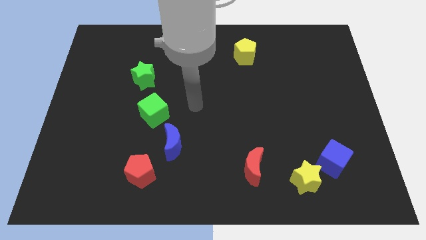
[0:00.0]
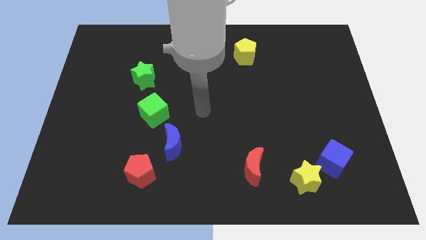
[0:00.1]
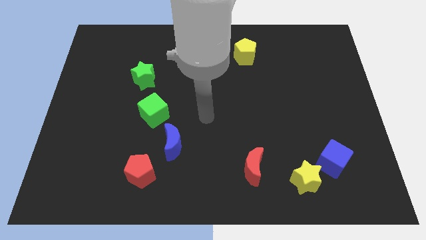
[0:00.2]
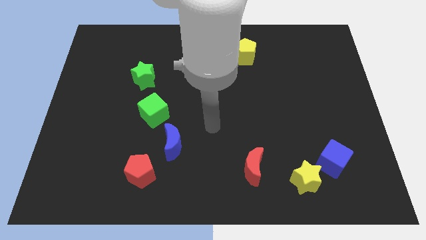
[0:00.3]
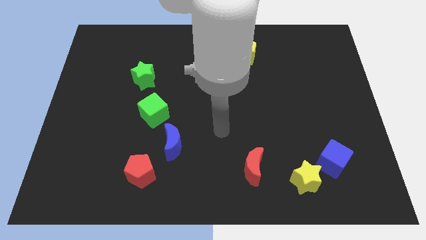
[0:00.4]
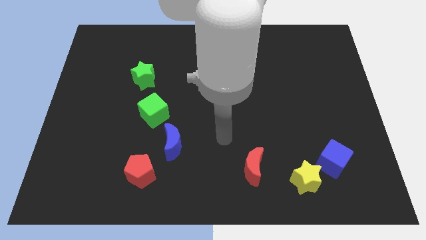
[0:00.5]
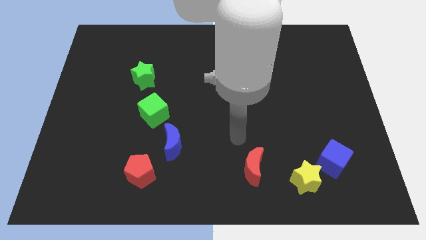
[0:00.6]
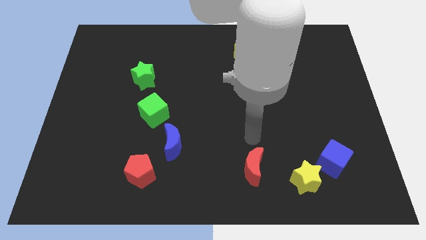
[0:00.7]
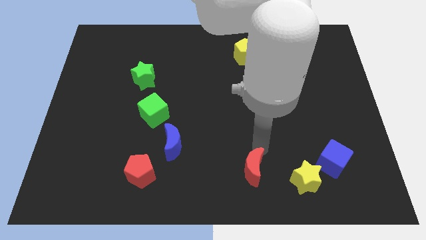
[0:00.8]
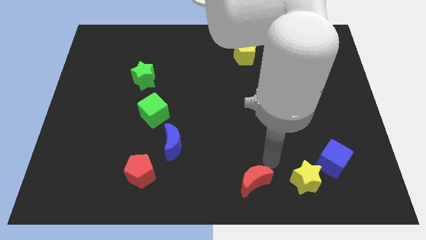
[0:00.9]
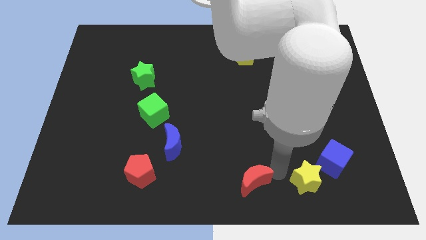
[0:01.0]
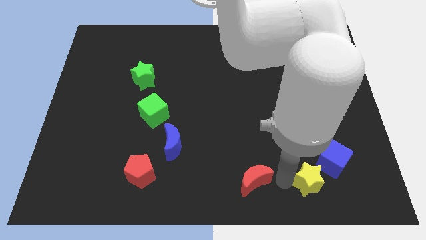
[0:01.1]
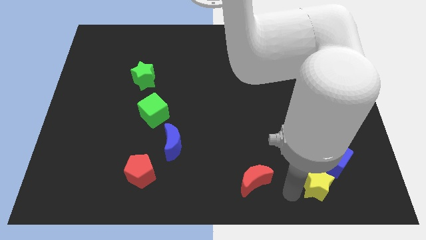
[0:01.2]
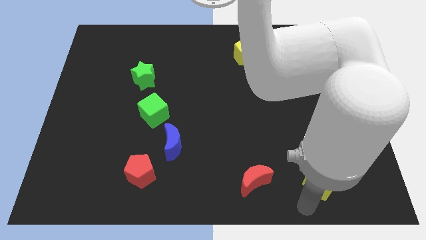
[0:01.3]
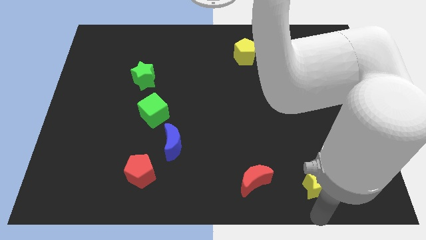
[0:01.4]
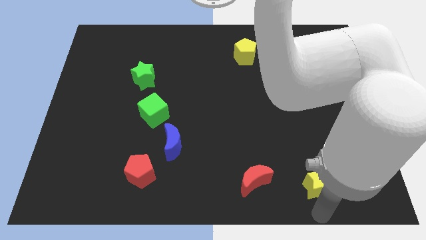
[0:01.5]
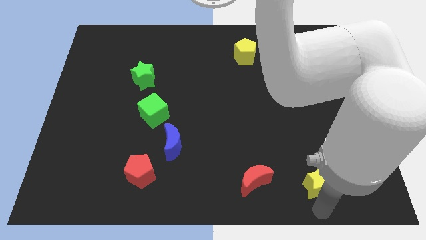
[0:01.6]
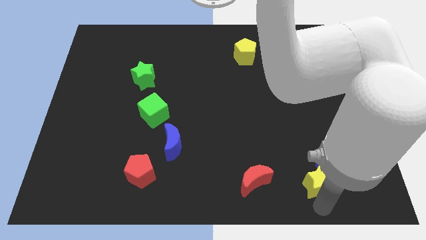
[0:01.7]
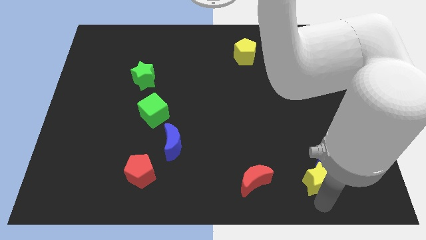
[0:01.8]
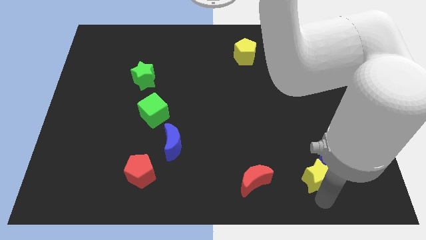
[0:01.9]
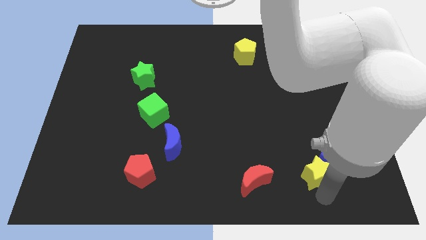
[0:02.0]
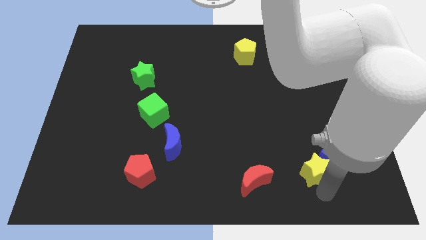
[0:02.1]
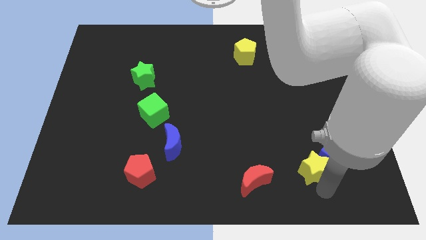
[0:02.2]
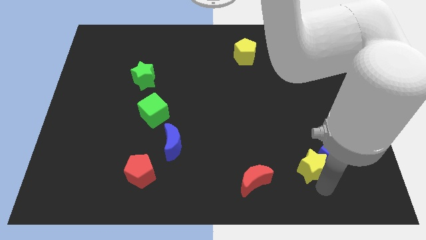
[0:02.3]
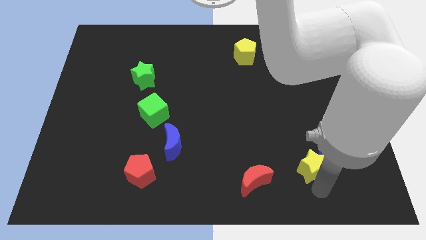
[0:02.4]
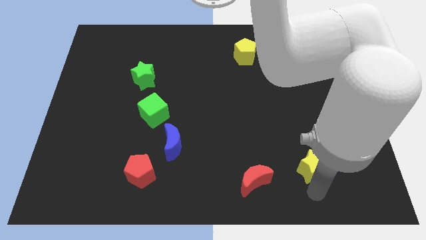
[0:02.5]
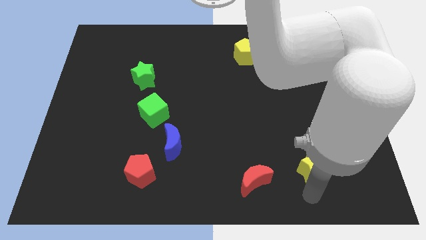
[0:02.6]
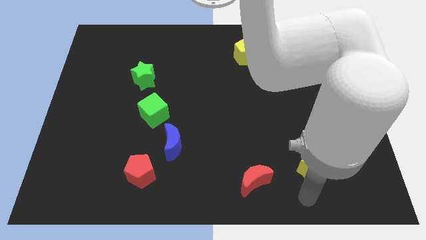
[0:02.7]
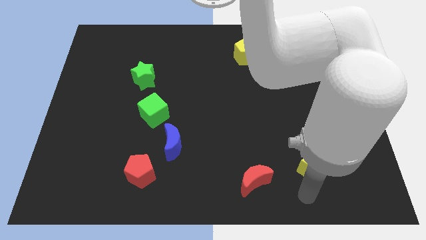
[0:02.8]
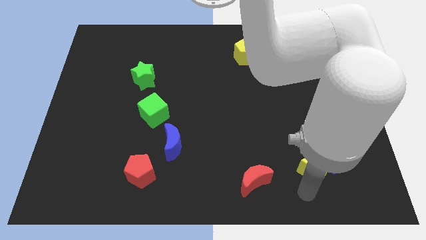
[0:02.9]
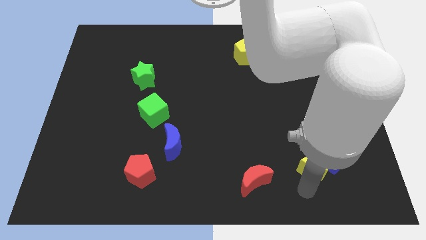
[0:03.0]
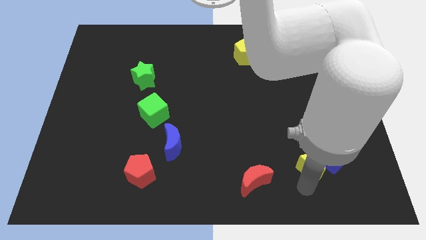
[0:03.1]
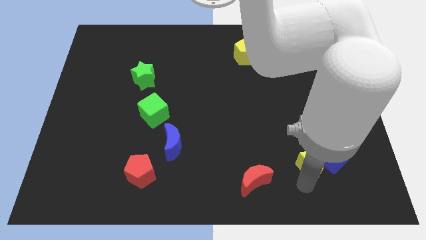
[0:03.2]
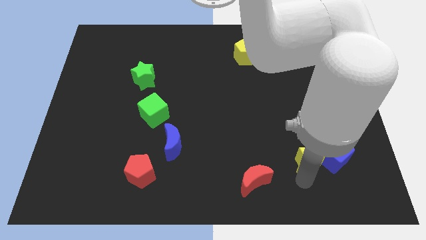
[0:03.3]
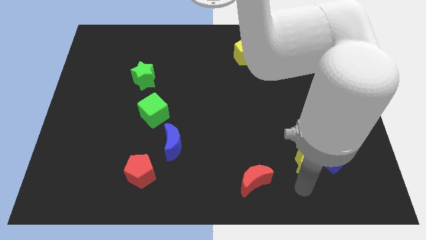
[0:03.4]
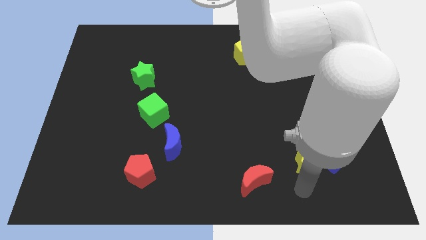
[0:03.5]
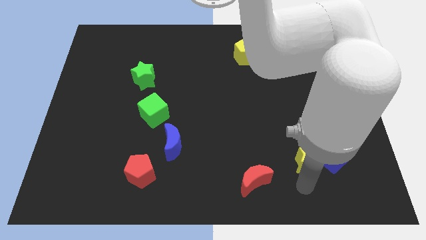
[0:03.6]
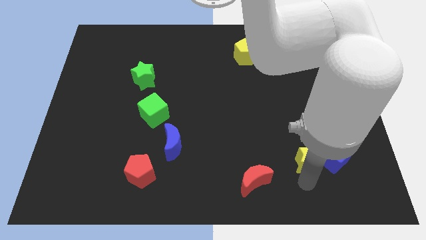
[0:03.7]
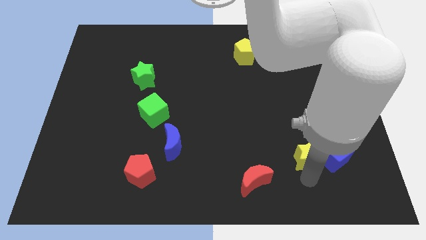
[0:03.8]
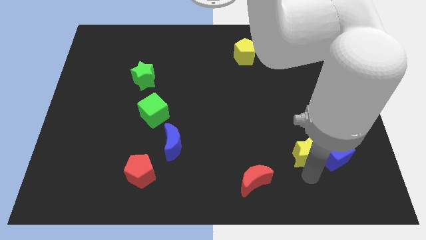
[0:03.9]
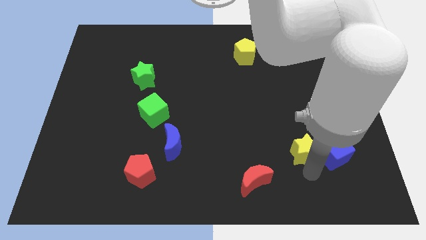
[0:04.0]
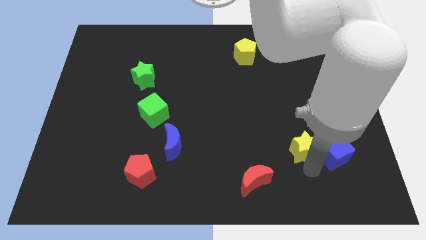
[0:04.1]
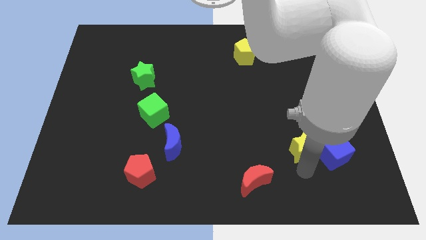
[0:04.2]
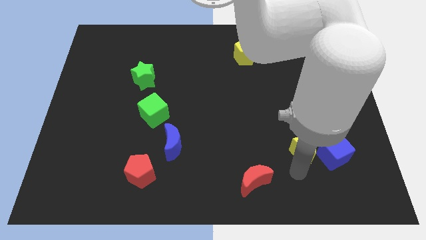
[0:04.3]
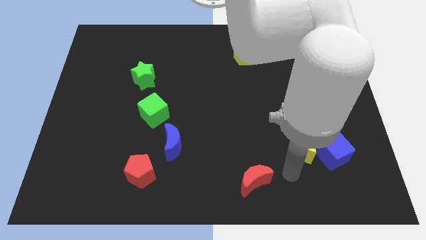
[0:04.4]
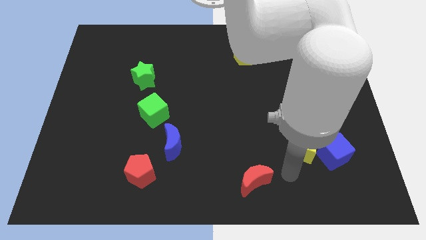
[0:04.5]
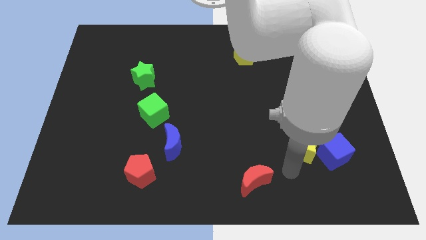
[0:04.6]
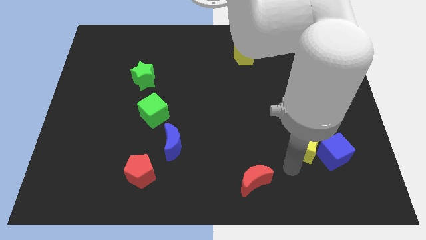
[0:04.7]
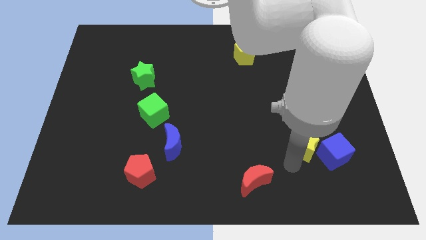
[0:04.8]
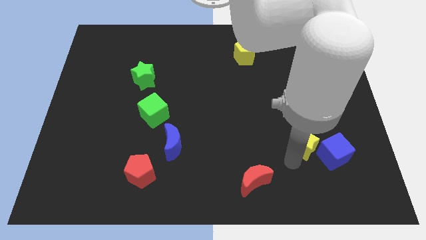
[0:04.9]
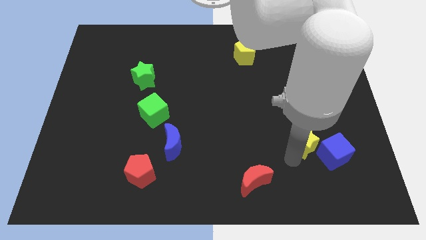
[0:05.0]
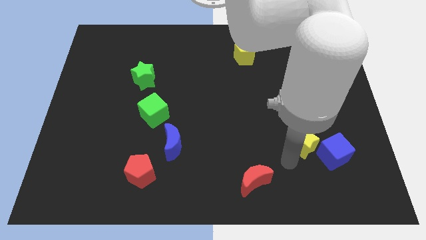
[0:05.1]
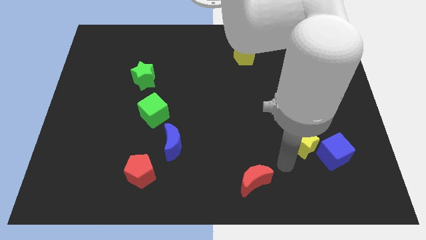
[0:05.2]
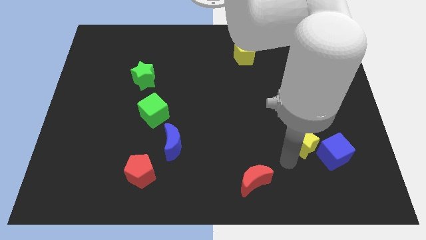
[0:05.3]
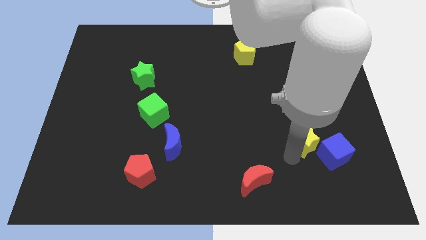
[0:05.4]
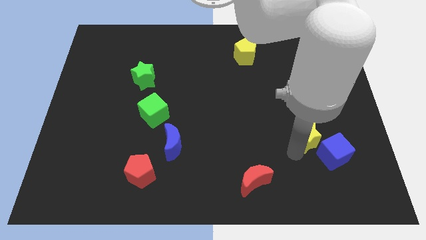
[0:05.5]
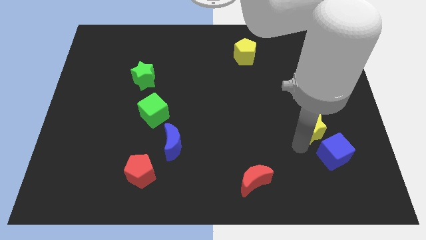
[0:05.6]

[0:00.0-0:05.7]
slide the yellow star to the top side of the blue cube

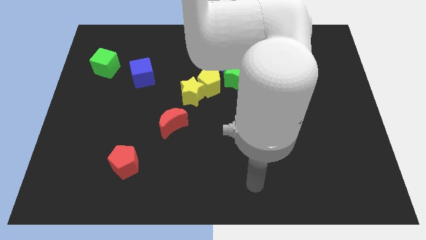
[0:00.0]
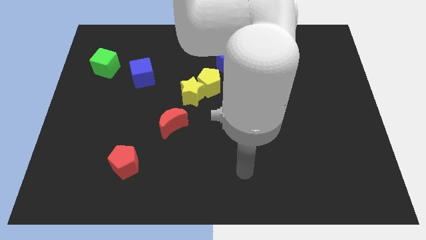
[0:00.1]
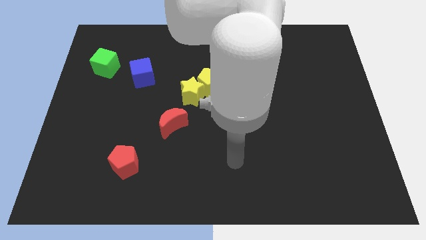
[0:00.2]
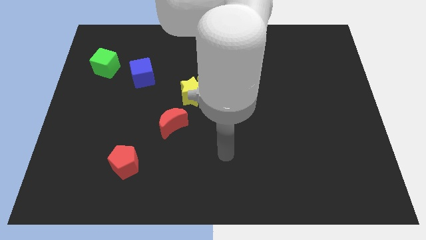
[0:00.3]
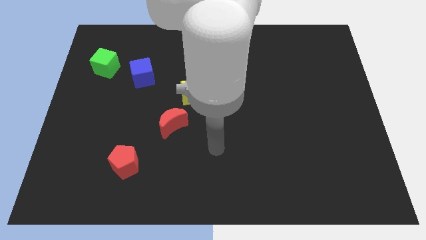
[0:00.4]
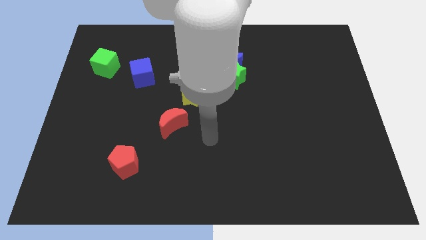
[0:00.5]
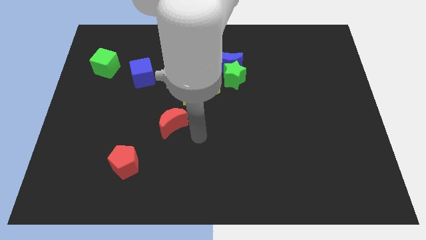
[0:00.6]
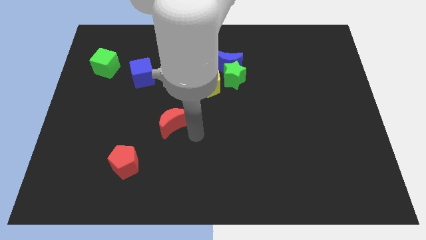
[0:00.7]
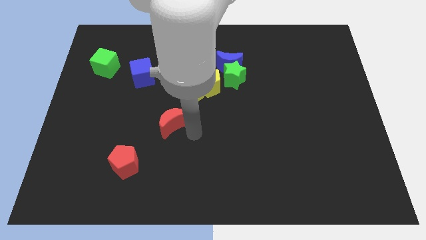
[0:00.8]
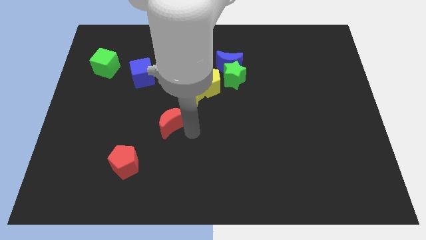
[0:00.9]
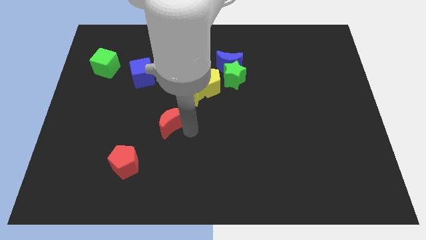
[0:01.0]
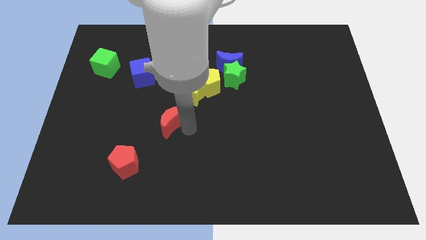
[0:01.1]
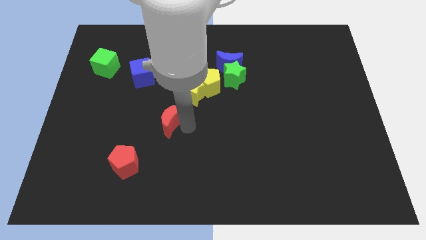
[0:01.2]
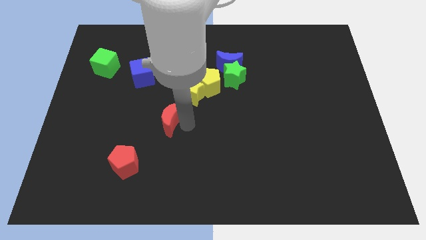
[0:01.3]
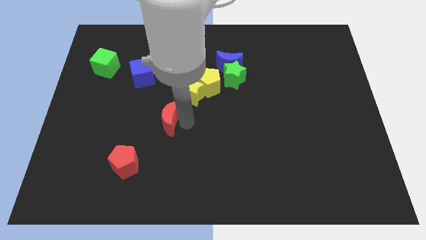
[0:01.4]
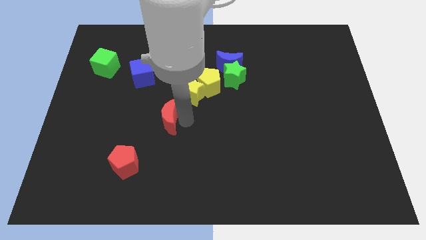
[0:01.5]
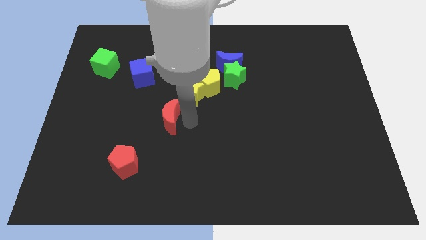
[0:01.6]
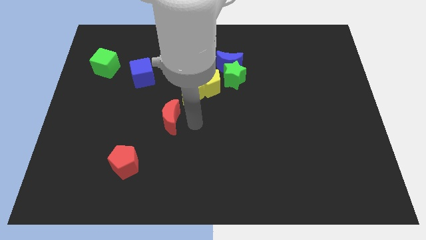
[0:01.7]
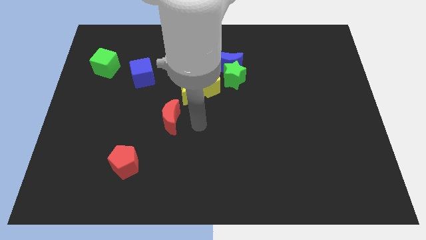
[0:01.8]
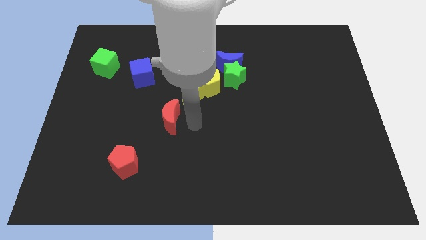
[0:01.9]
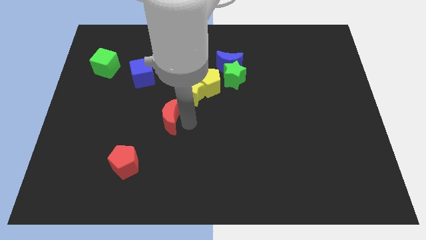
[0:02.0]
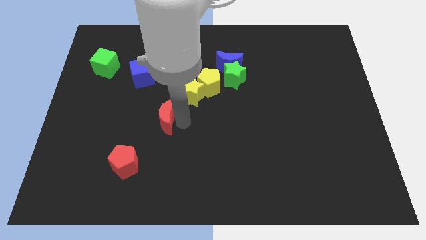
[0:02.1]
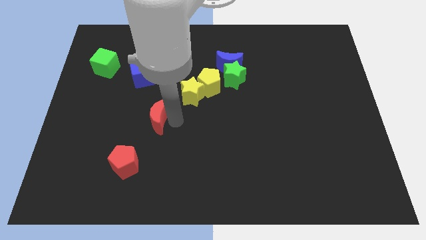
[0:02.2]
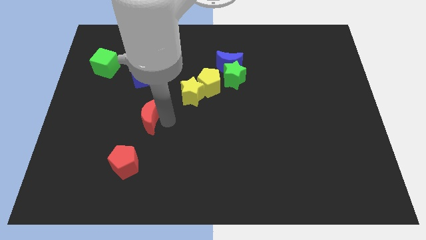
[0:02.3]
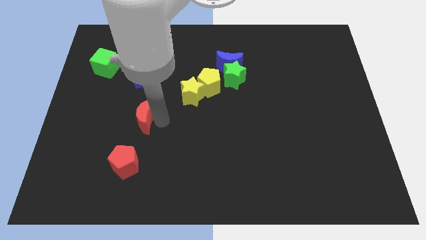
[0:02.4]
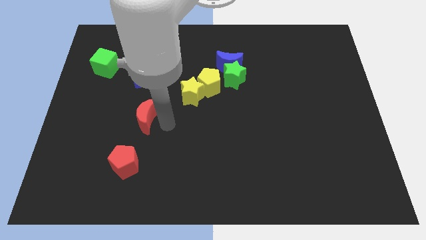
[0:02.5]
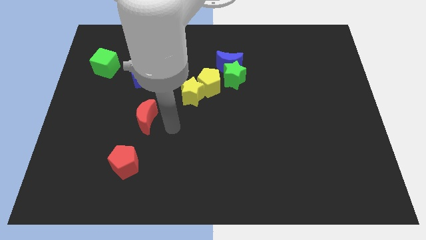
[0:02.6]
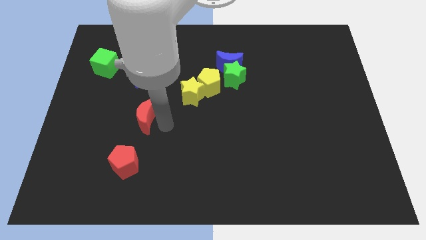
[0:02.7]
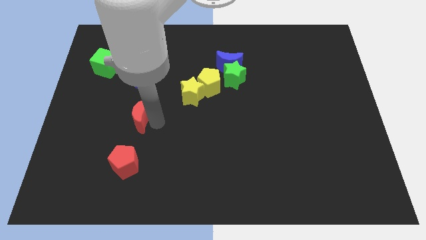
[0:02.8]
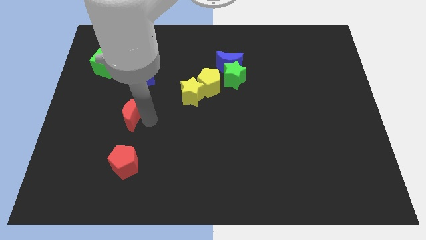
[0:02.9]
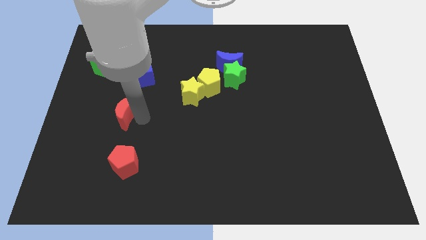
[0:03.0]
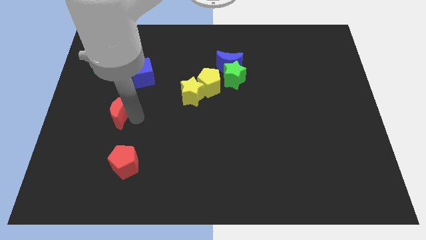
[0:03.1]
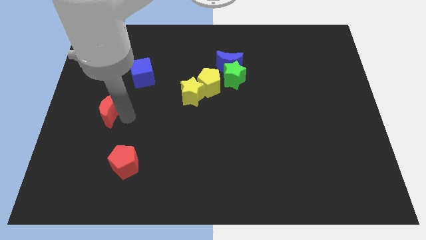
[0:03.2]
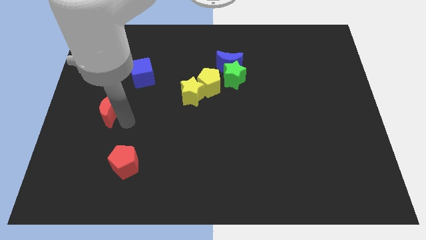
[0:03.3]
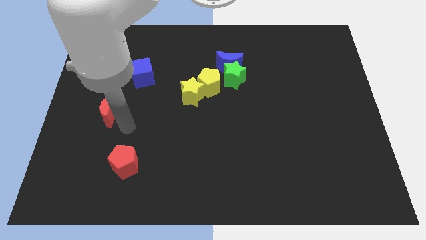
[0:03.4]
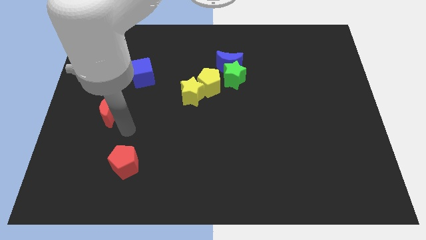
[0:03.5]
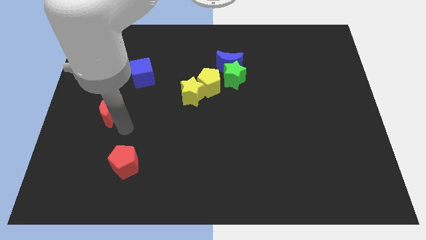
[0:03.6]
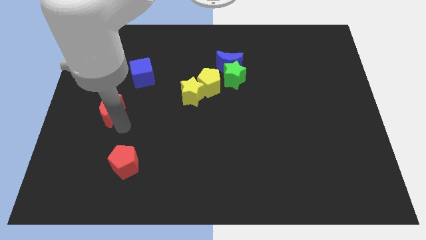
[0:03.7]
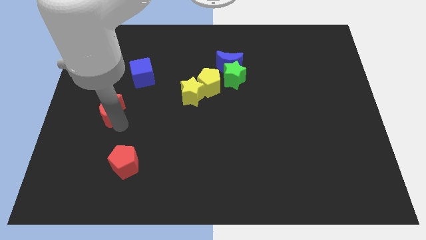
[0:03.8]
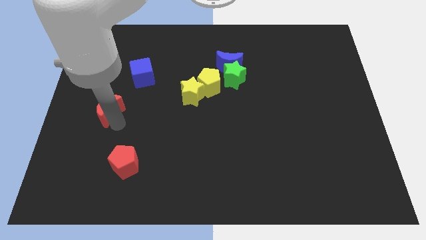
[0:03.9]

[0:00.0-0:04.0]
slide the red moon to the bottom of the green cube
